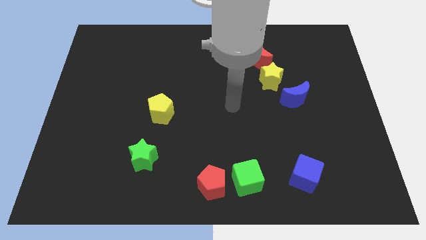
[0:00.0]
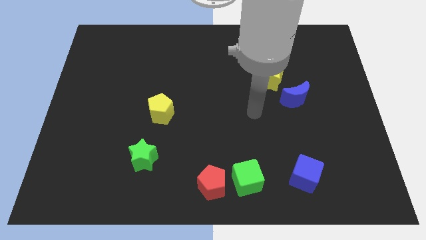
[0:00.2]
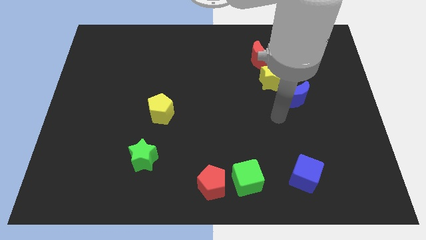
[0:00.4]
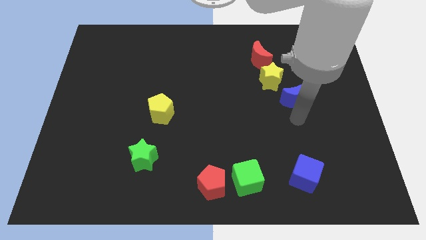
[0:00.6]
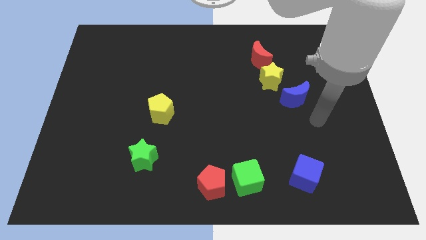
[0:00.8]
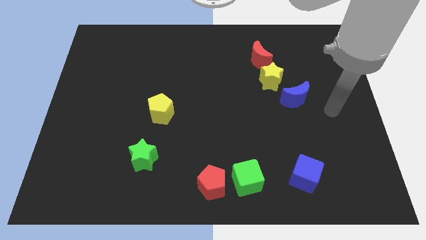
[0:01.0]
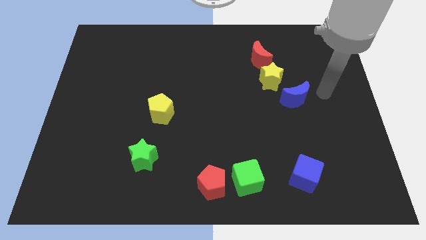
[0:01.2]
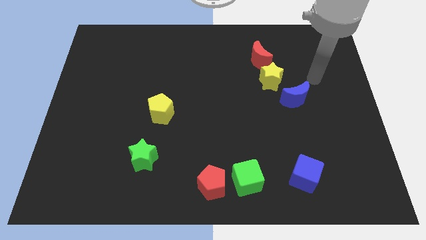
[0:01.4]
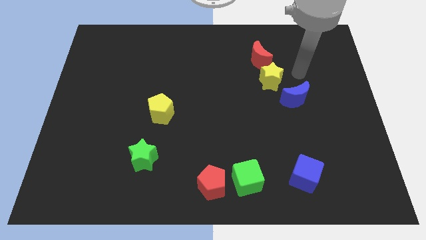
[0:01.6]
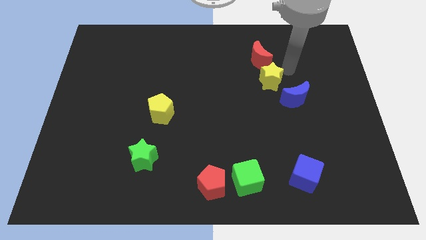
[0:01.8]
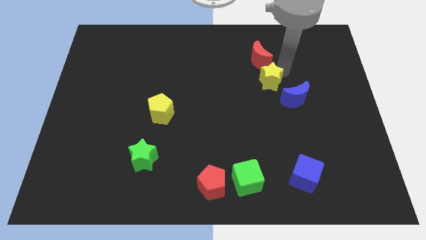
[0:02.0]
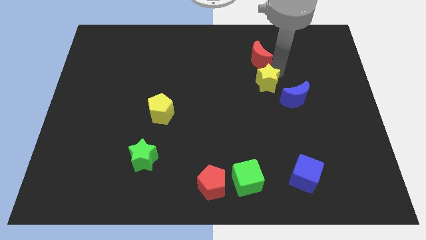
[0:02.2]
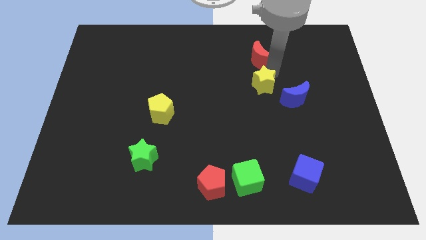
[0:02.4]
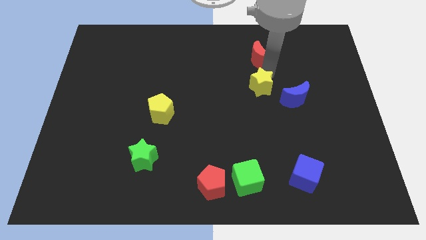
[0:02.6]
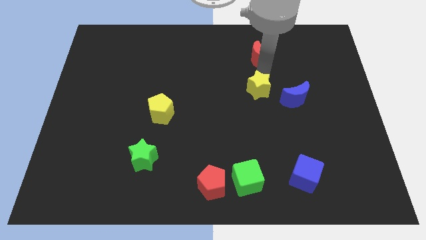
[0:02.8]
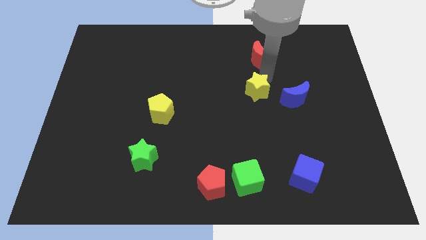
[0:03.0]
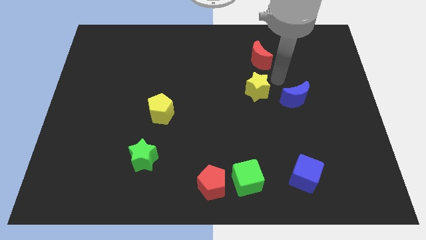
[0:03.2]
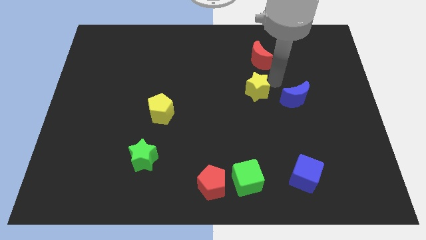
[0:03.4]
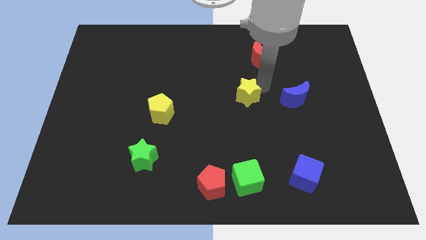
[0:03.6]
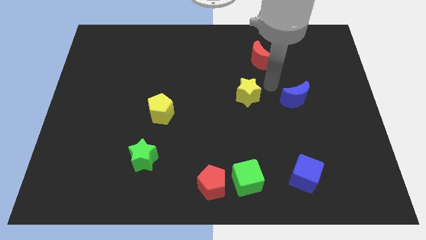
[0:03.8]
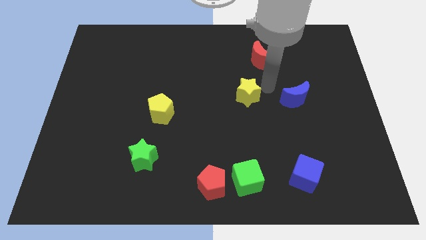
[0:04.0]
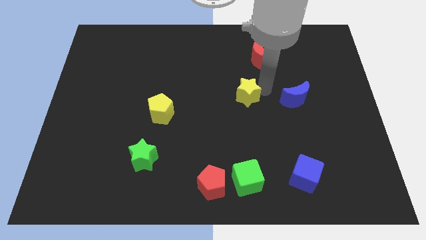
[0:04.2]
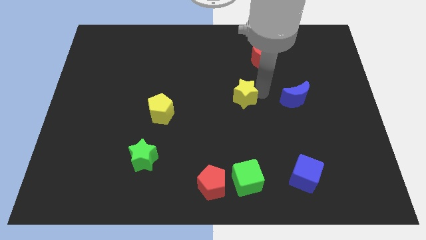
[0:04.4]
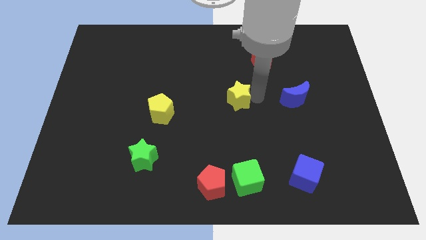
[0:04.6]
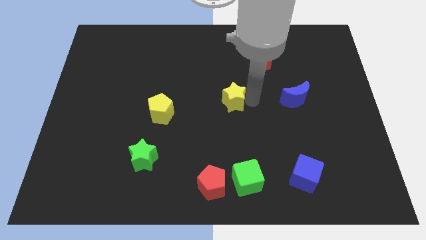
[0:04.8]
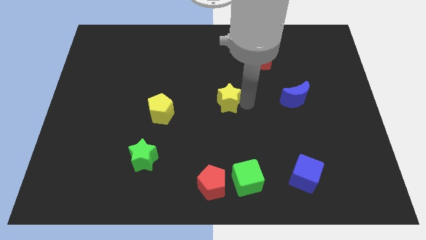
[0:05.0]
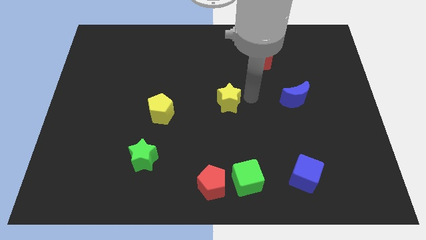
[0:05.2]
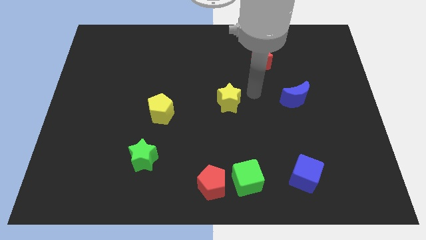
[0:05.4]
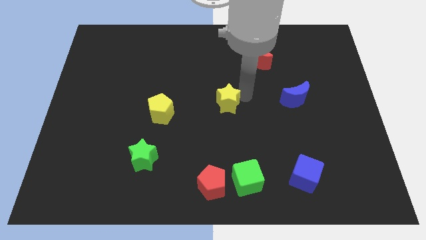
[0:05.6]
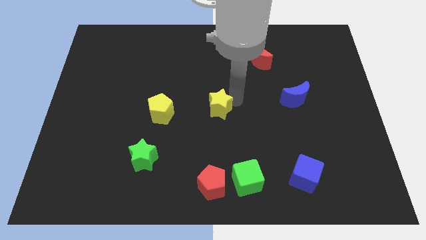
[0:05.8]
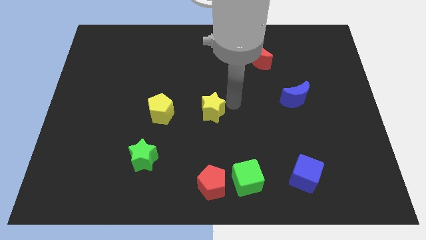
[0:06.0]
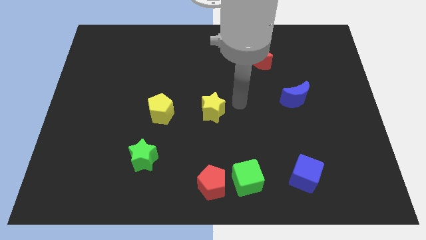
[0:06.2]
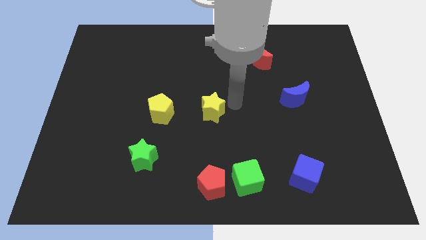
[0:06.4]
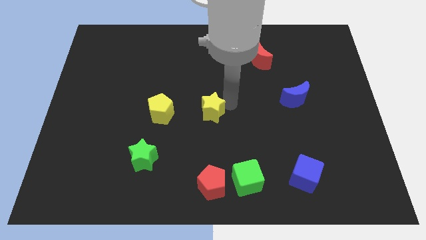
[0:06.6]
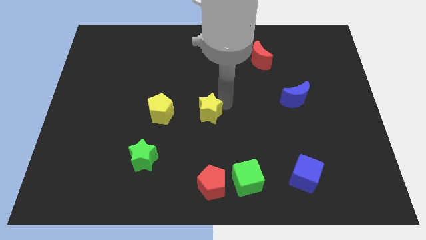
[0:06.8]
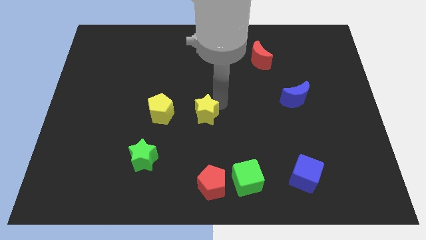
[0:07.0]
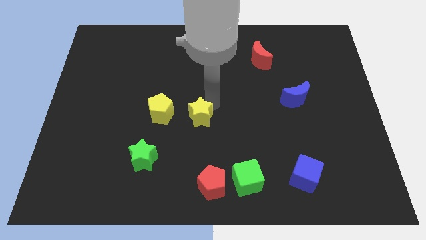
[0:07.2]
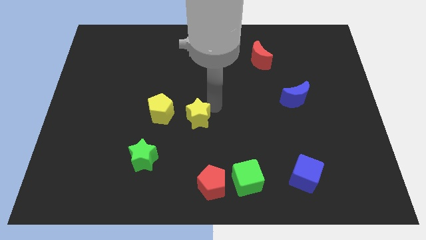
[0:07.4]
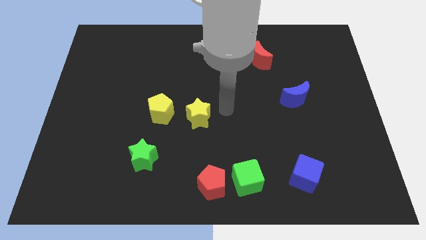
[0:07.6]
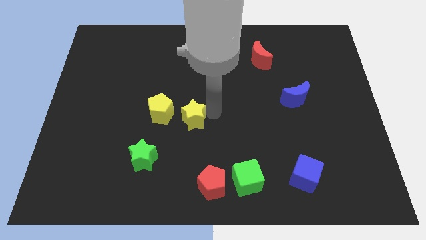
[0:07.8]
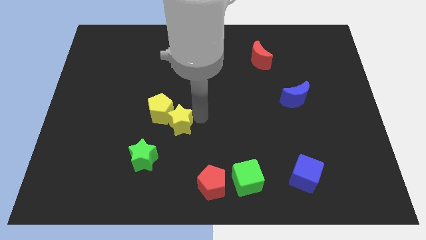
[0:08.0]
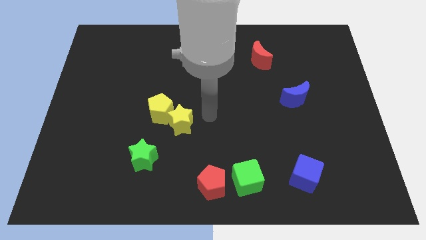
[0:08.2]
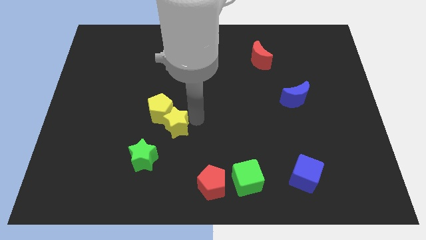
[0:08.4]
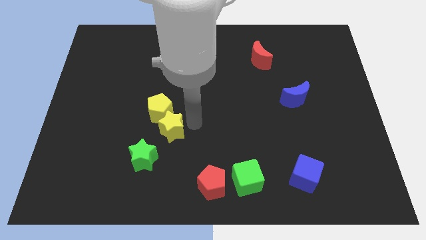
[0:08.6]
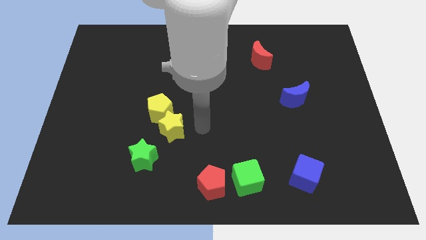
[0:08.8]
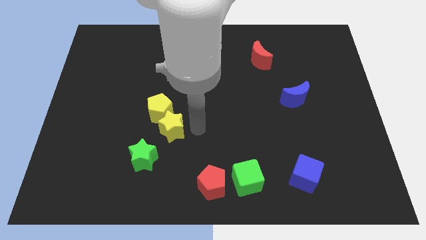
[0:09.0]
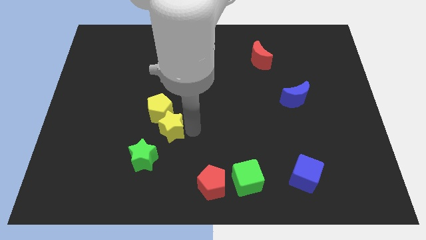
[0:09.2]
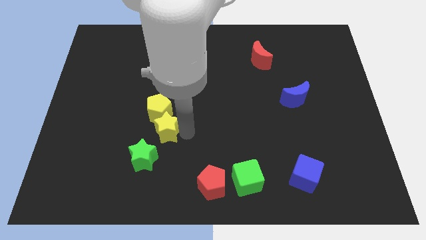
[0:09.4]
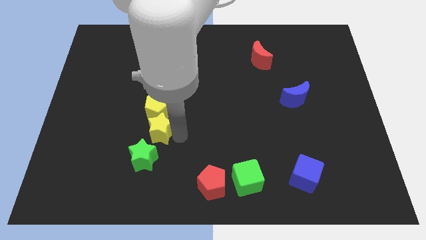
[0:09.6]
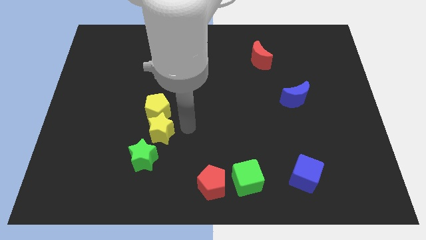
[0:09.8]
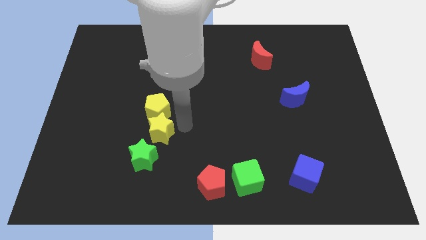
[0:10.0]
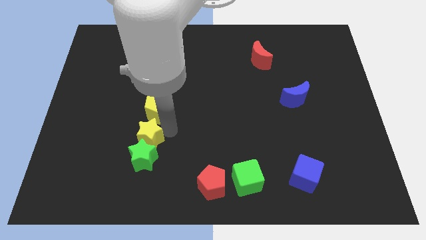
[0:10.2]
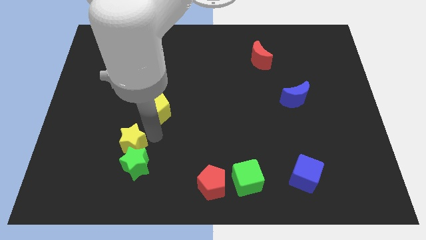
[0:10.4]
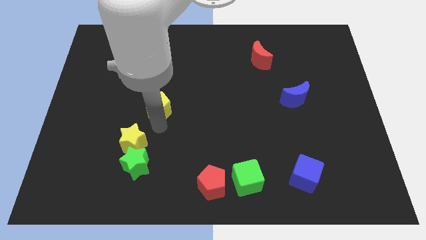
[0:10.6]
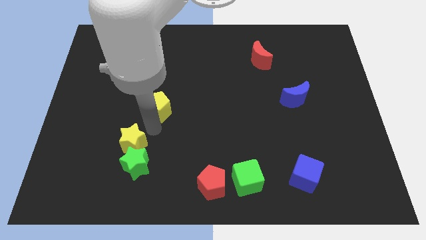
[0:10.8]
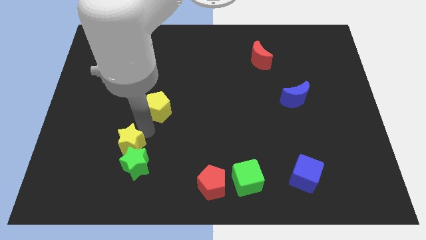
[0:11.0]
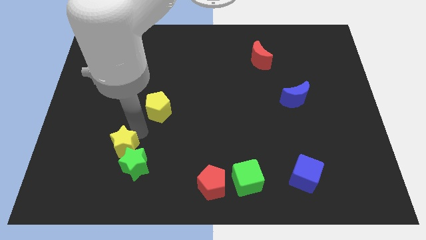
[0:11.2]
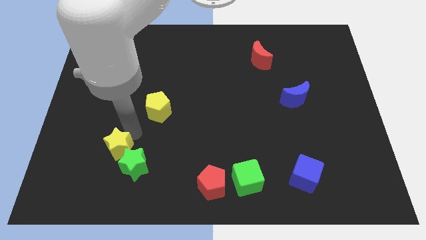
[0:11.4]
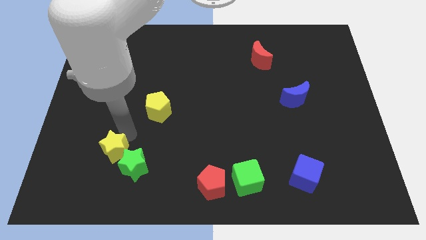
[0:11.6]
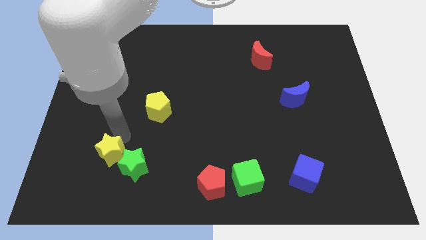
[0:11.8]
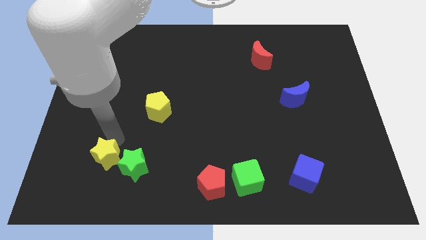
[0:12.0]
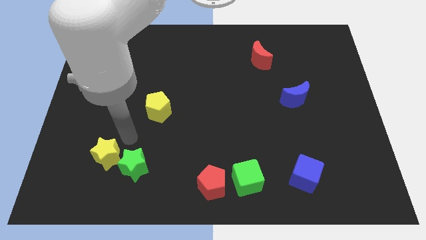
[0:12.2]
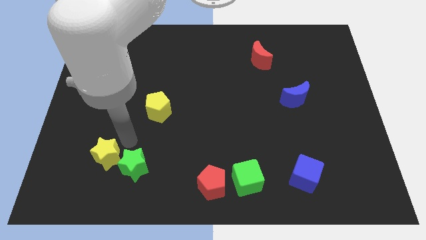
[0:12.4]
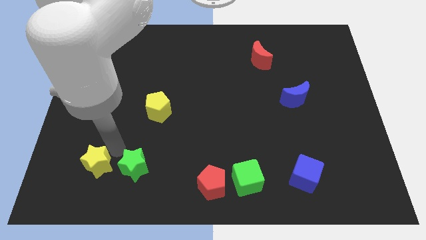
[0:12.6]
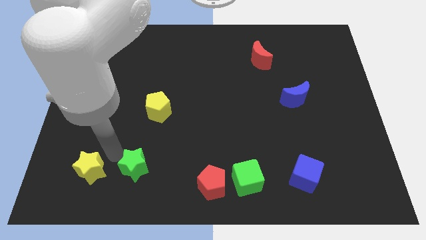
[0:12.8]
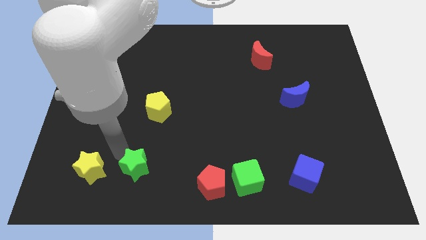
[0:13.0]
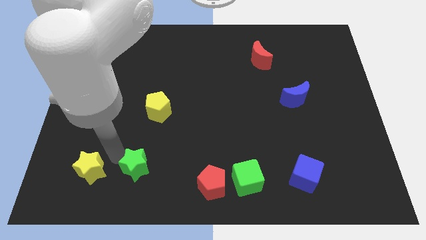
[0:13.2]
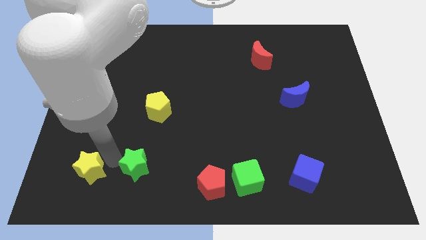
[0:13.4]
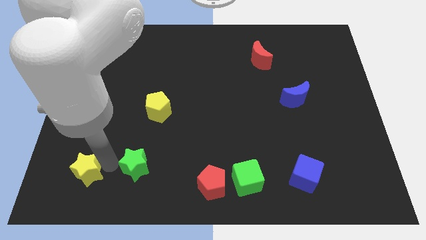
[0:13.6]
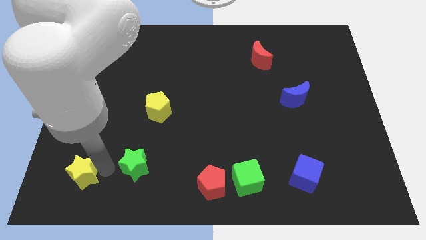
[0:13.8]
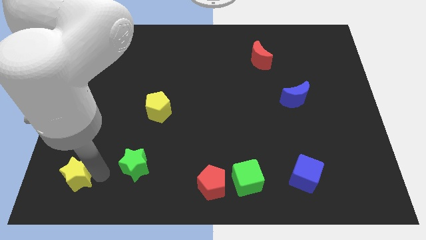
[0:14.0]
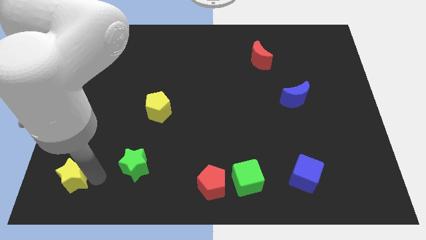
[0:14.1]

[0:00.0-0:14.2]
push the yellow star to the lower left corner

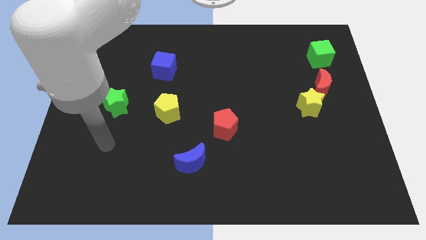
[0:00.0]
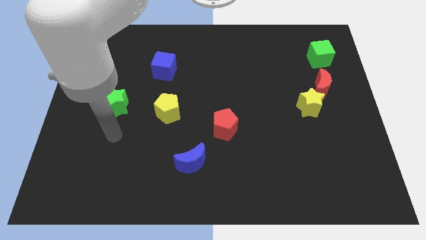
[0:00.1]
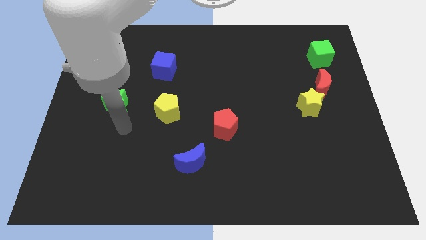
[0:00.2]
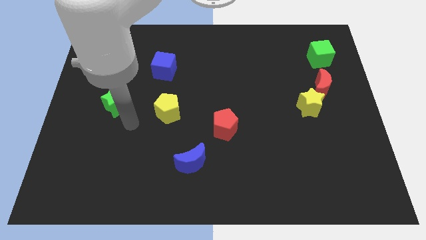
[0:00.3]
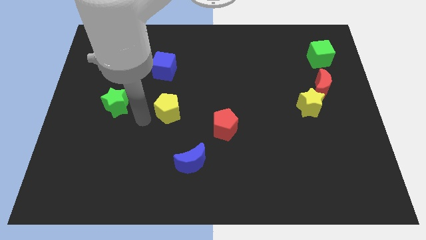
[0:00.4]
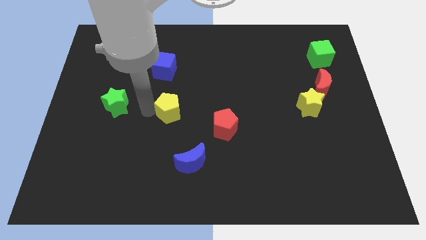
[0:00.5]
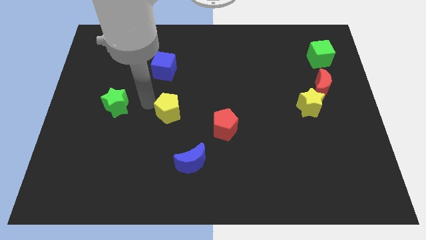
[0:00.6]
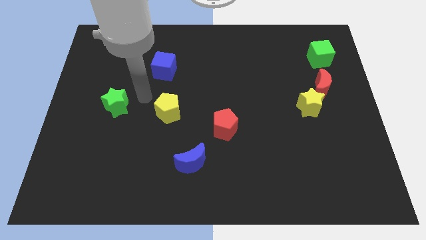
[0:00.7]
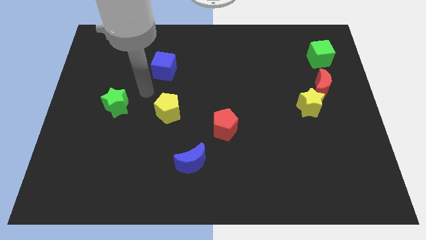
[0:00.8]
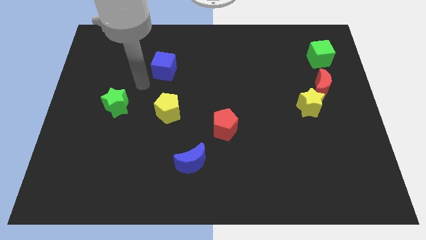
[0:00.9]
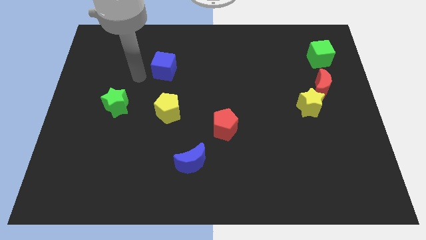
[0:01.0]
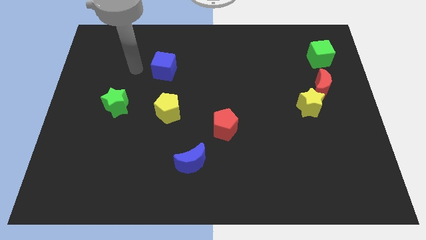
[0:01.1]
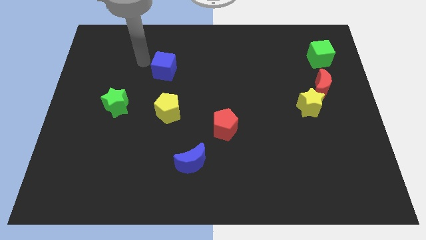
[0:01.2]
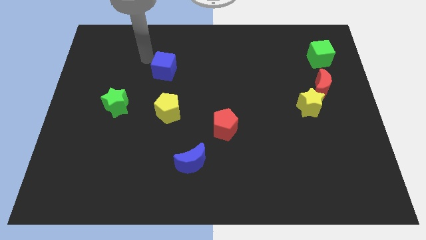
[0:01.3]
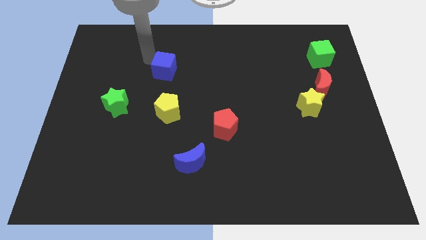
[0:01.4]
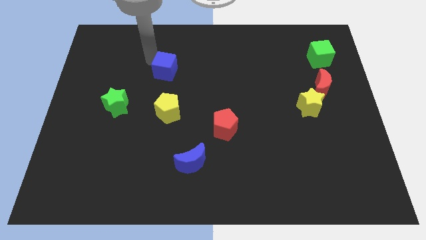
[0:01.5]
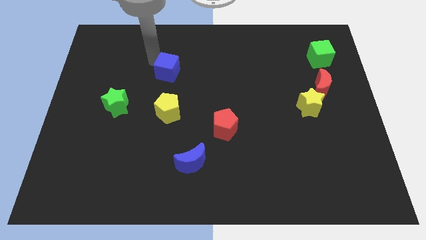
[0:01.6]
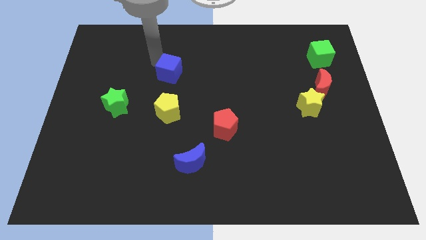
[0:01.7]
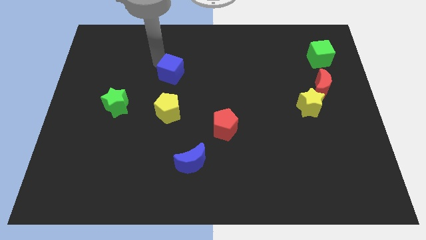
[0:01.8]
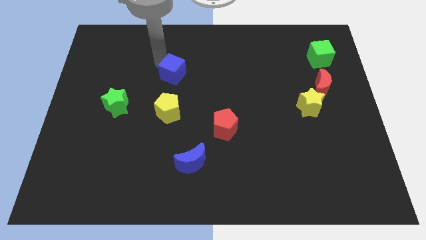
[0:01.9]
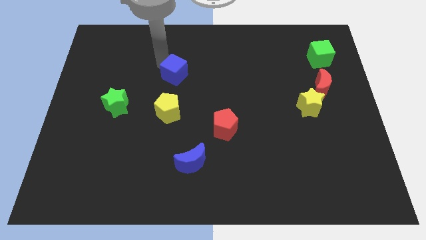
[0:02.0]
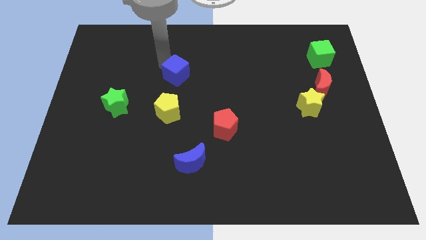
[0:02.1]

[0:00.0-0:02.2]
move the blue cube to the middle
